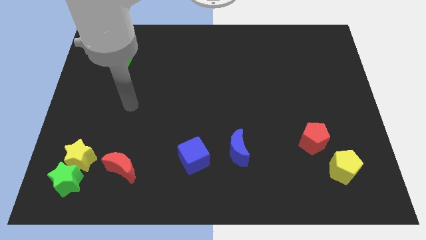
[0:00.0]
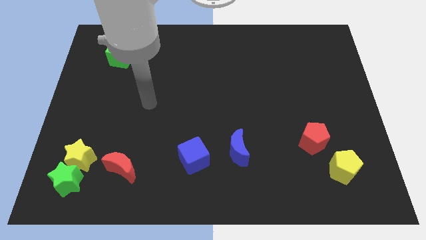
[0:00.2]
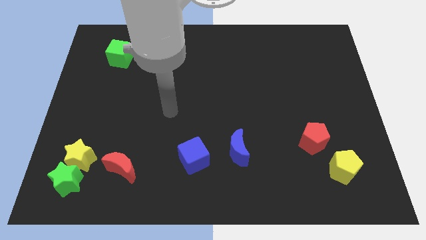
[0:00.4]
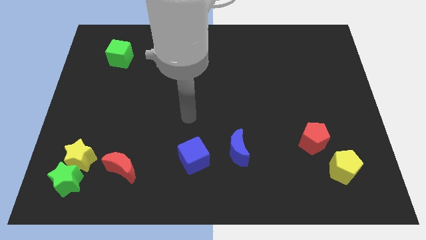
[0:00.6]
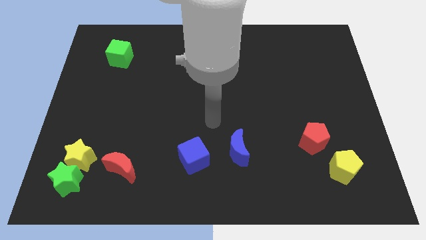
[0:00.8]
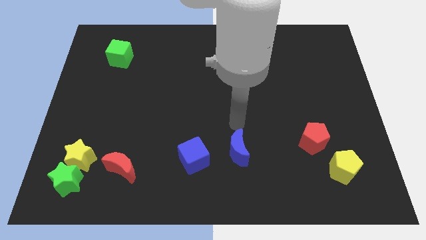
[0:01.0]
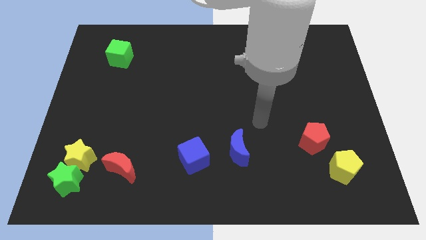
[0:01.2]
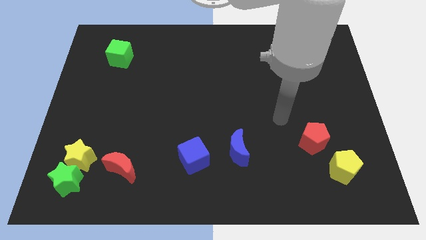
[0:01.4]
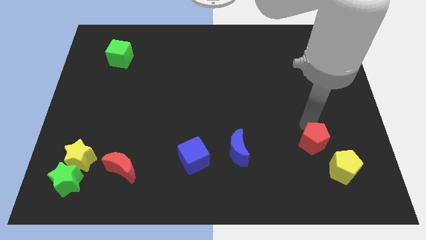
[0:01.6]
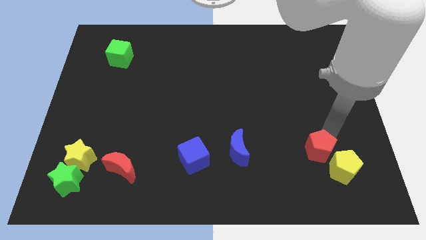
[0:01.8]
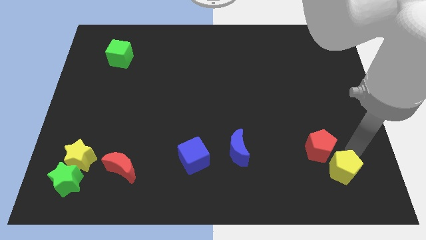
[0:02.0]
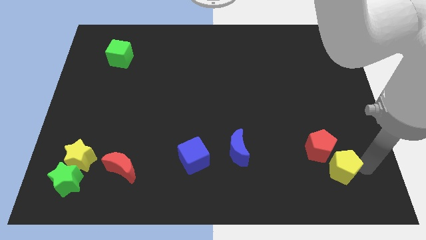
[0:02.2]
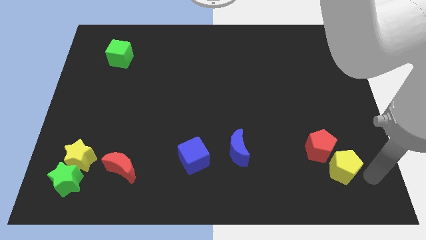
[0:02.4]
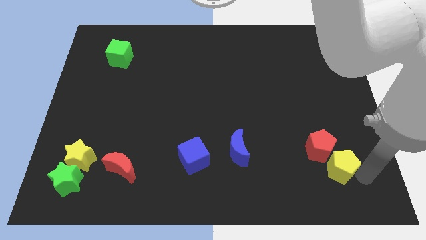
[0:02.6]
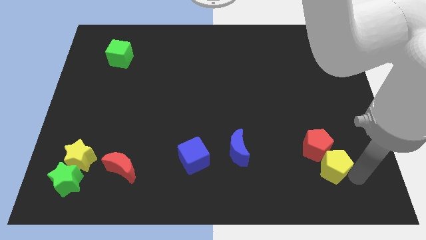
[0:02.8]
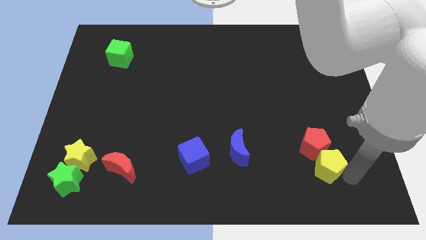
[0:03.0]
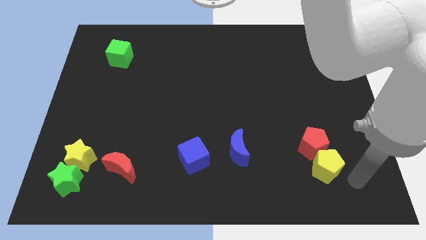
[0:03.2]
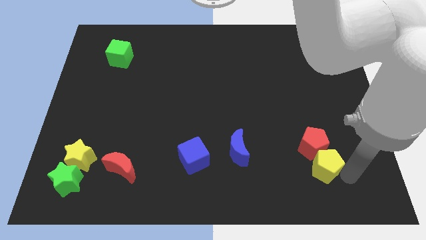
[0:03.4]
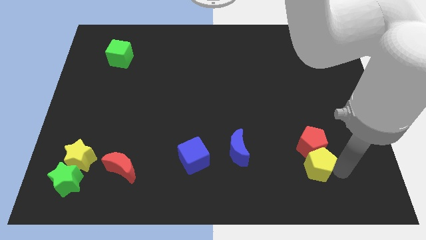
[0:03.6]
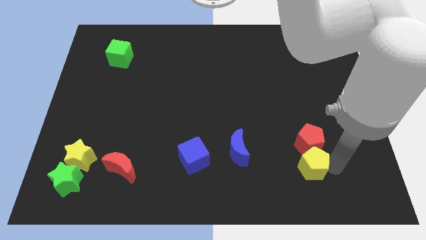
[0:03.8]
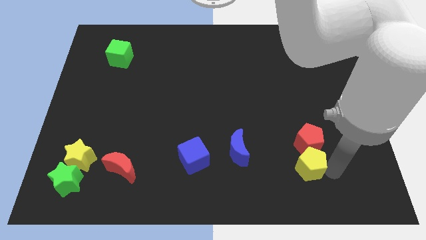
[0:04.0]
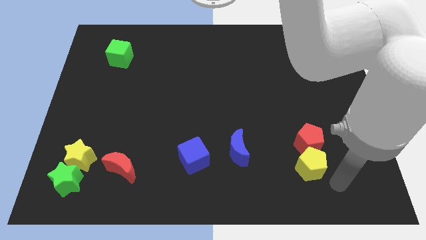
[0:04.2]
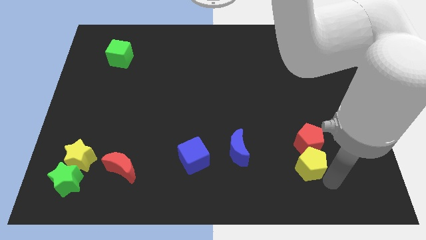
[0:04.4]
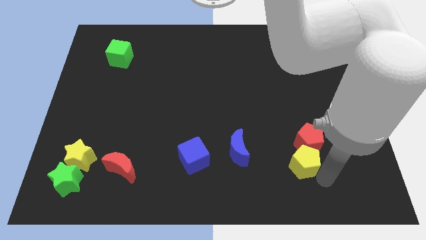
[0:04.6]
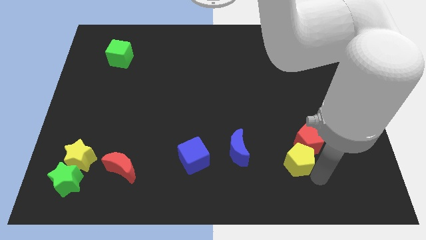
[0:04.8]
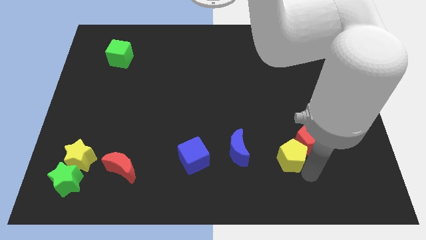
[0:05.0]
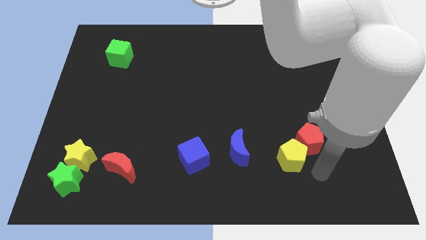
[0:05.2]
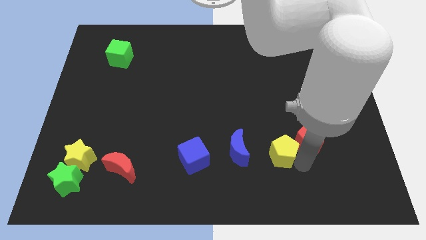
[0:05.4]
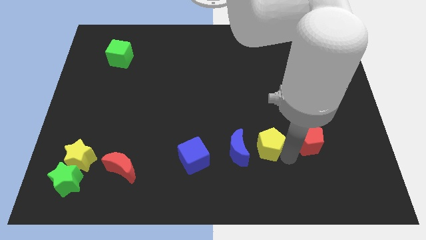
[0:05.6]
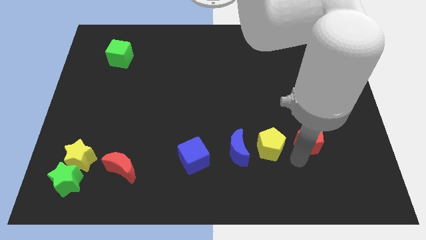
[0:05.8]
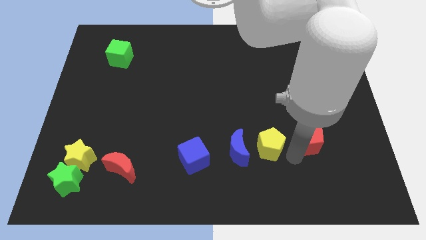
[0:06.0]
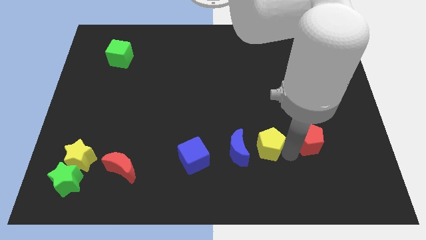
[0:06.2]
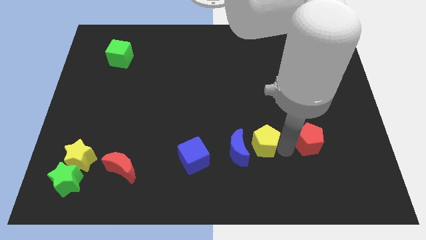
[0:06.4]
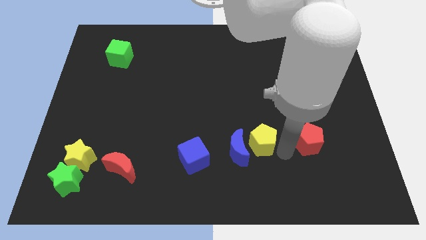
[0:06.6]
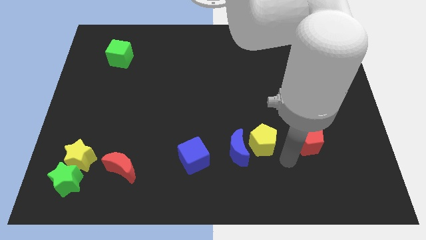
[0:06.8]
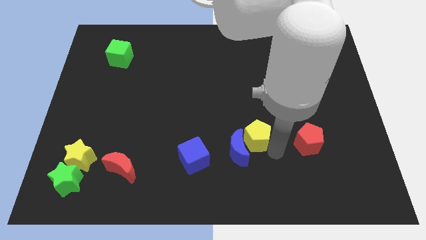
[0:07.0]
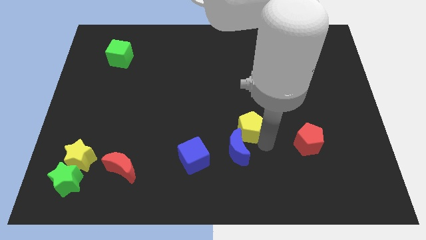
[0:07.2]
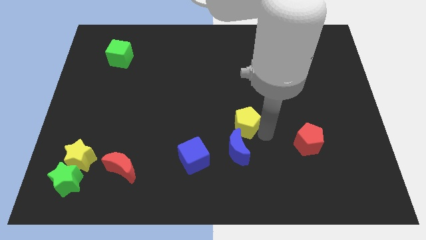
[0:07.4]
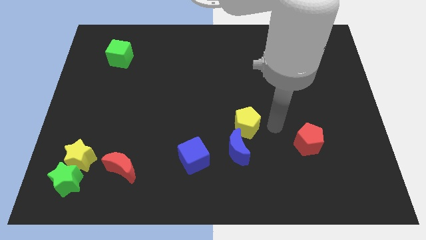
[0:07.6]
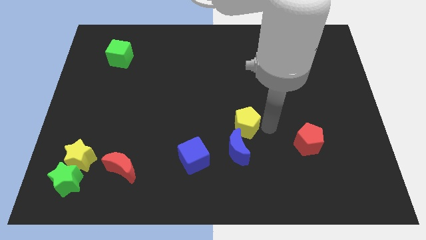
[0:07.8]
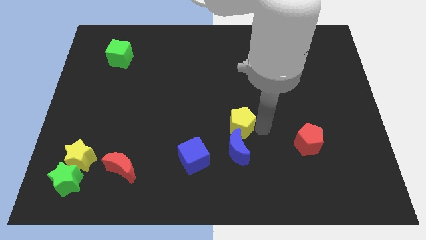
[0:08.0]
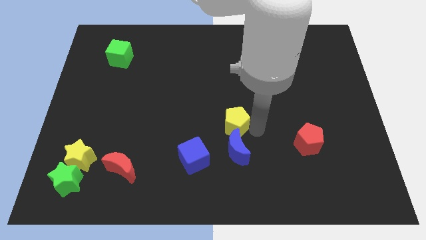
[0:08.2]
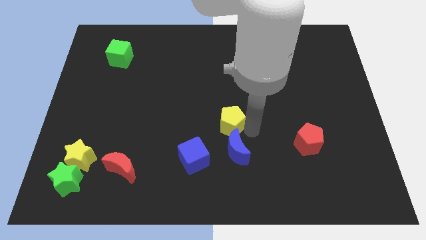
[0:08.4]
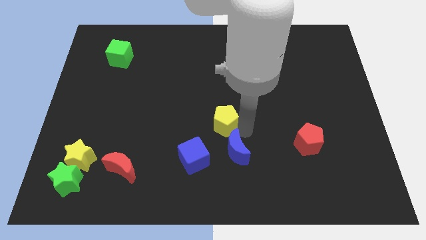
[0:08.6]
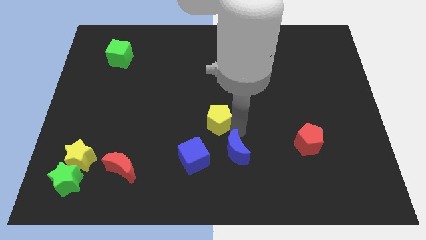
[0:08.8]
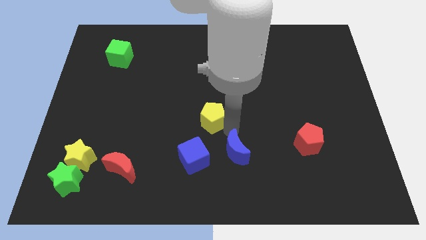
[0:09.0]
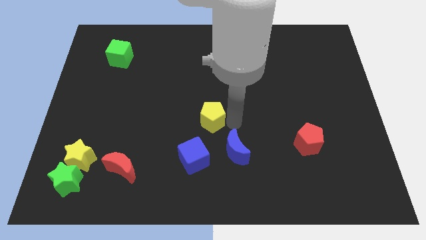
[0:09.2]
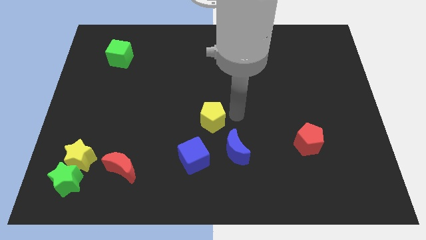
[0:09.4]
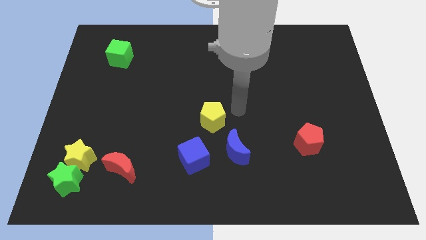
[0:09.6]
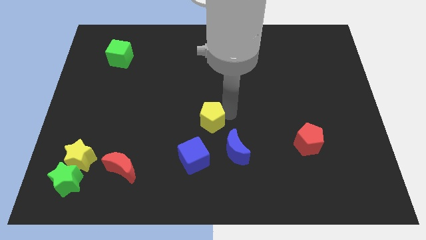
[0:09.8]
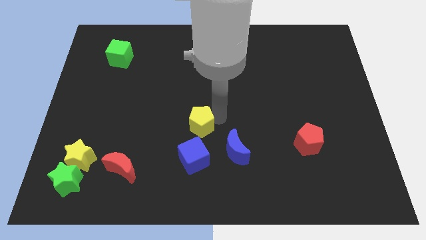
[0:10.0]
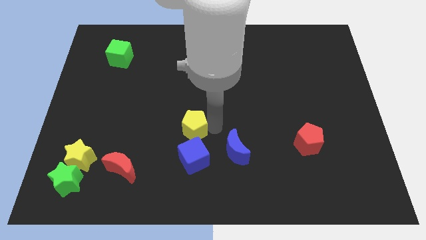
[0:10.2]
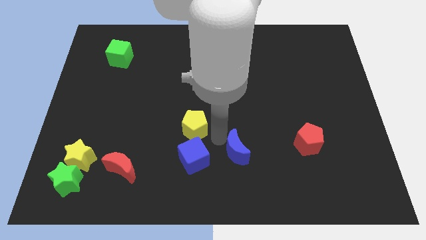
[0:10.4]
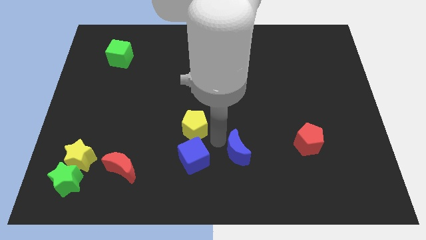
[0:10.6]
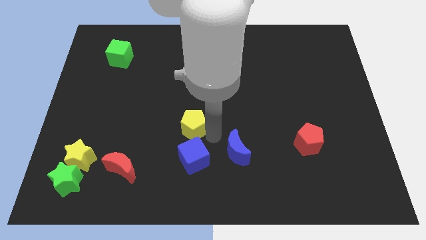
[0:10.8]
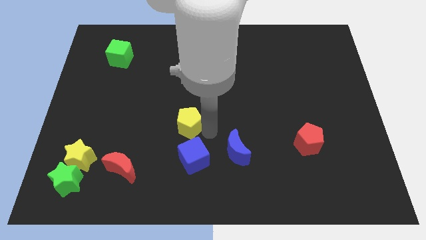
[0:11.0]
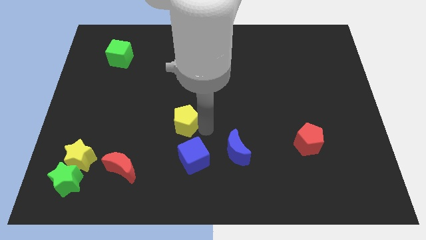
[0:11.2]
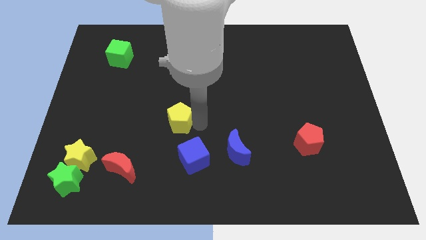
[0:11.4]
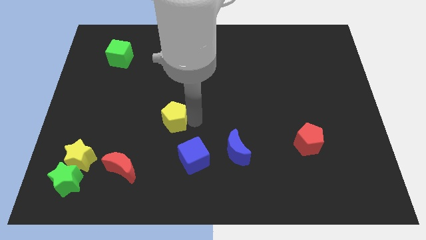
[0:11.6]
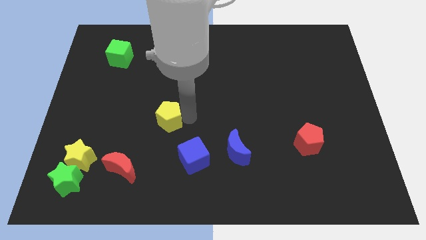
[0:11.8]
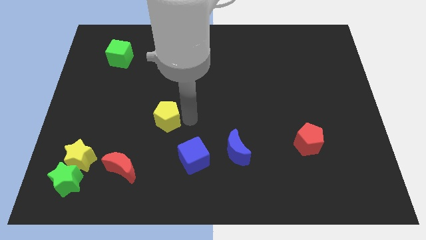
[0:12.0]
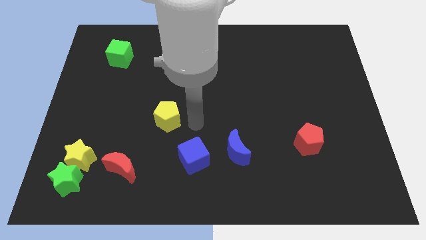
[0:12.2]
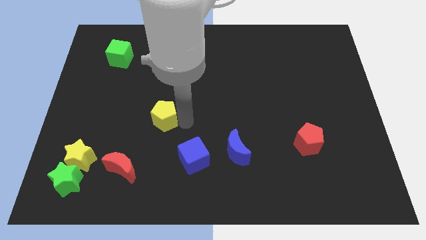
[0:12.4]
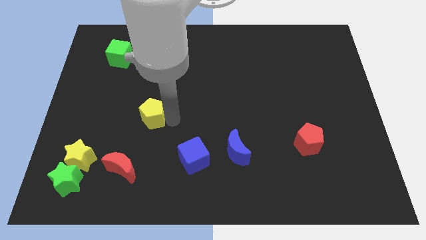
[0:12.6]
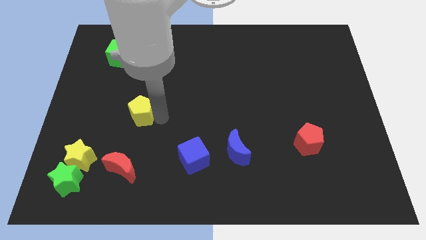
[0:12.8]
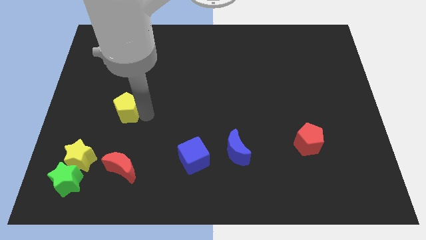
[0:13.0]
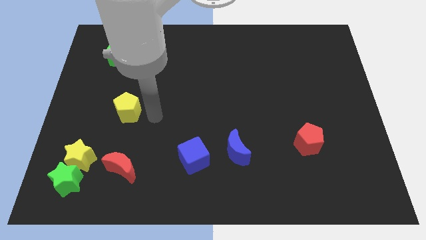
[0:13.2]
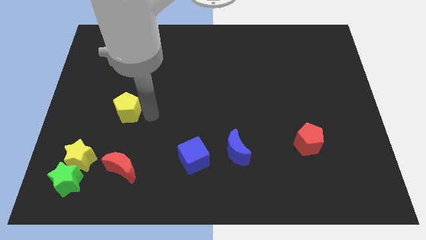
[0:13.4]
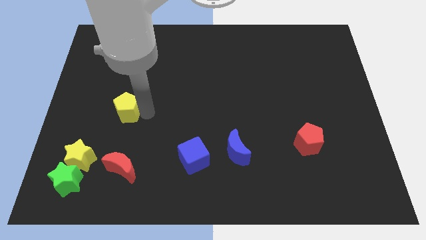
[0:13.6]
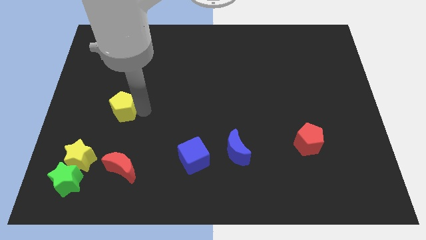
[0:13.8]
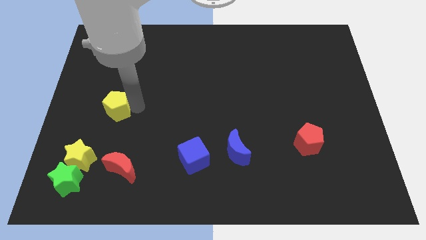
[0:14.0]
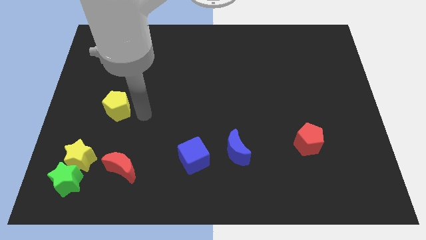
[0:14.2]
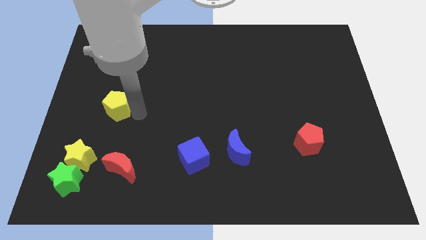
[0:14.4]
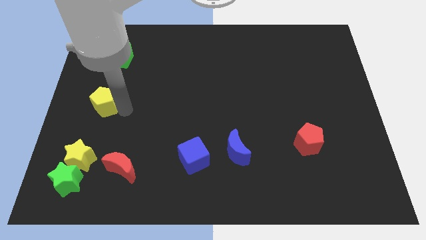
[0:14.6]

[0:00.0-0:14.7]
slide the yellow pentagon to the left side of the board
